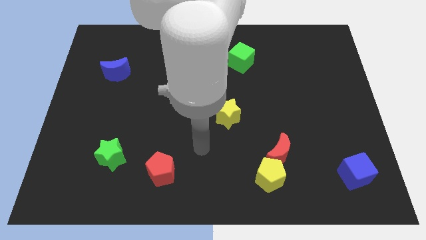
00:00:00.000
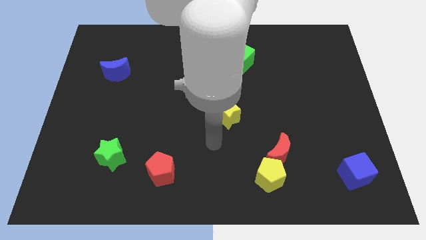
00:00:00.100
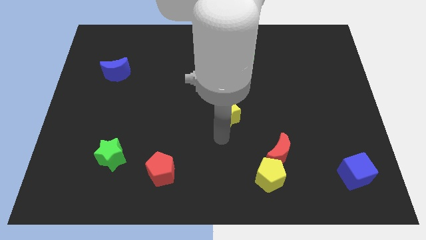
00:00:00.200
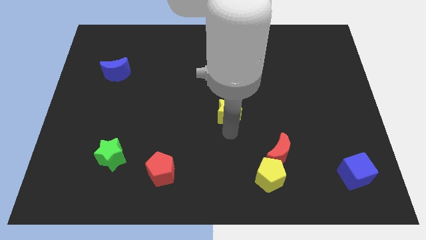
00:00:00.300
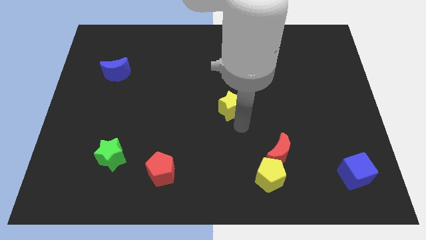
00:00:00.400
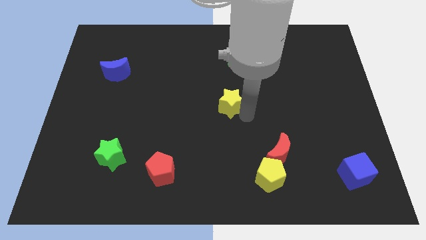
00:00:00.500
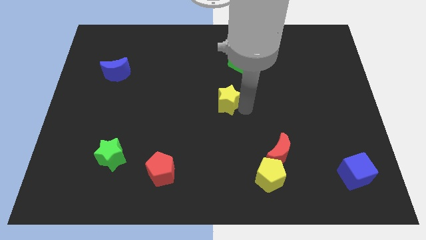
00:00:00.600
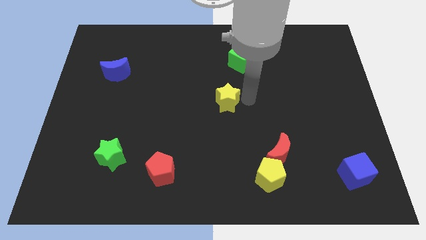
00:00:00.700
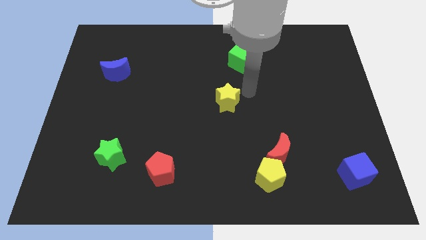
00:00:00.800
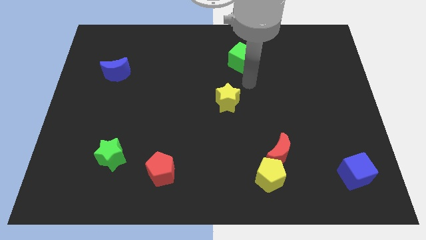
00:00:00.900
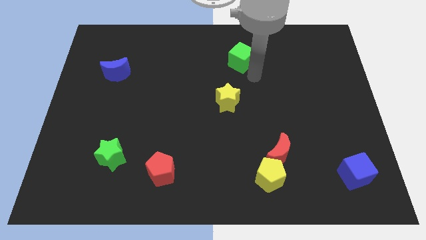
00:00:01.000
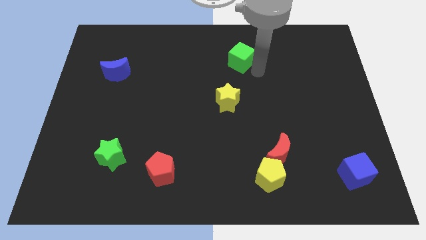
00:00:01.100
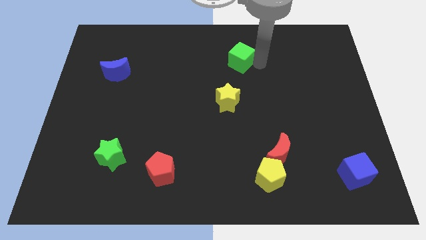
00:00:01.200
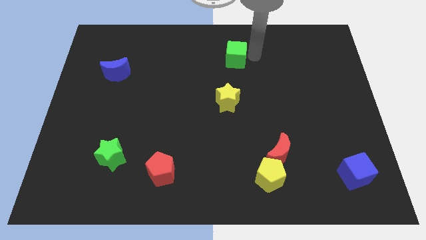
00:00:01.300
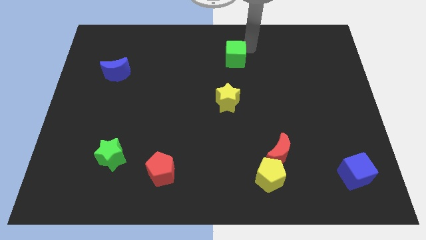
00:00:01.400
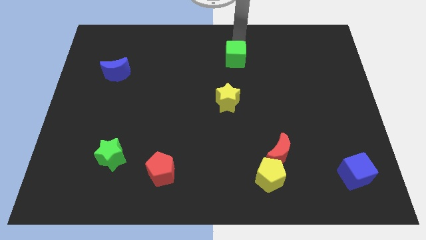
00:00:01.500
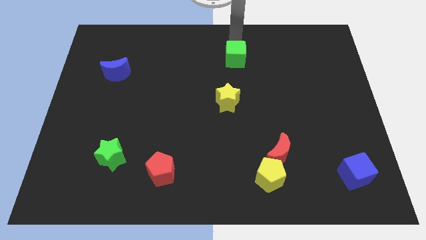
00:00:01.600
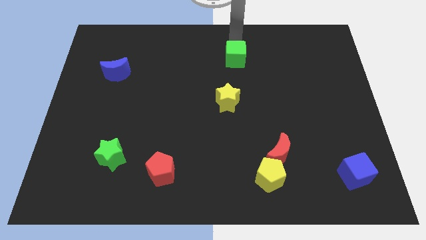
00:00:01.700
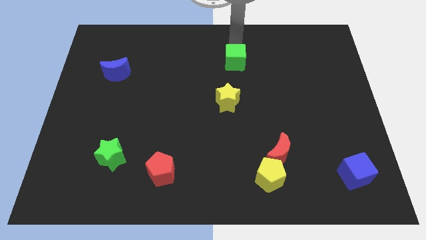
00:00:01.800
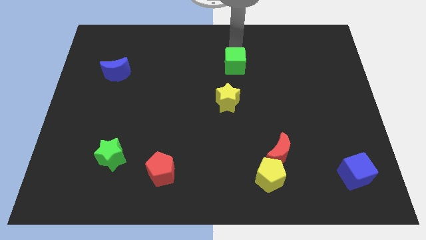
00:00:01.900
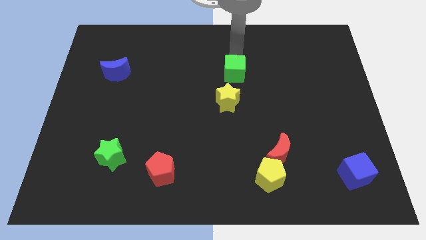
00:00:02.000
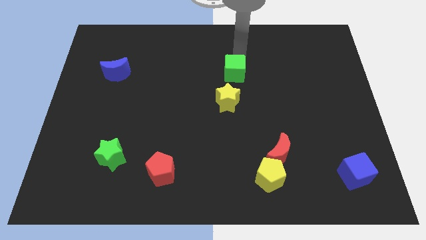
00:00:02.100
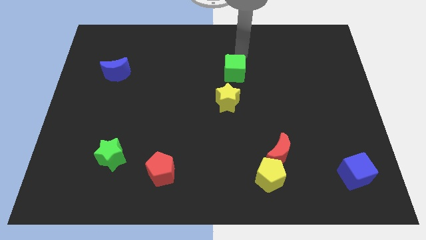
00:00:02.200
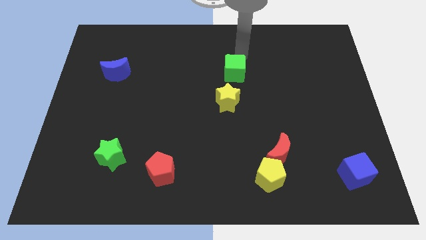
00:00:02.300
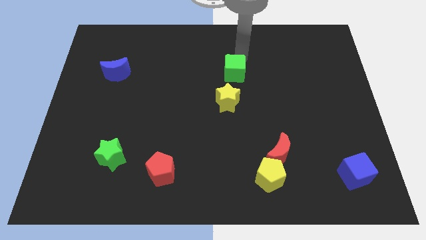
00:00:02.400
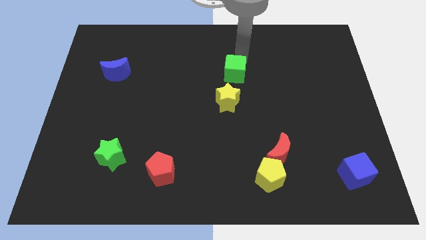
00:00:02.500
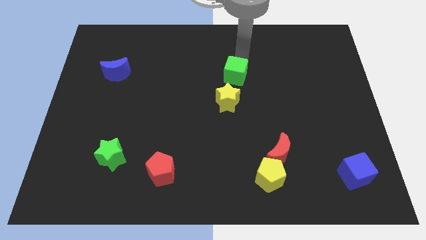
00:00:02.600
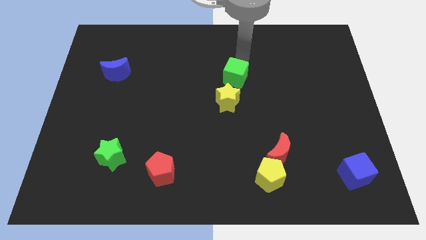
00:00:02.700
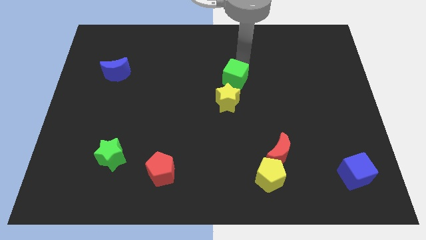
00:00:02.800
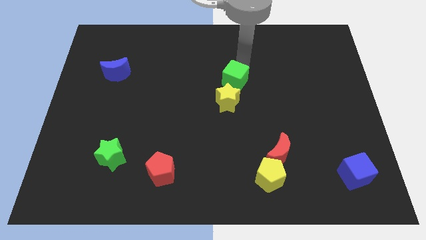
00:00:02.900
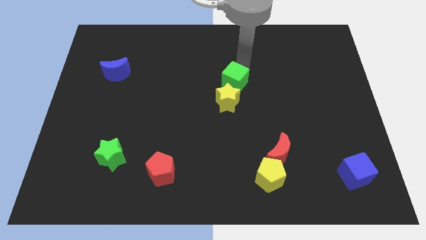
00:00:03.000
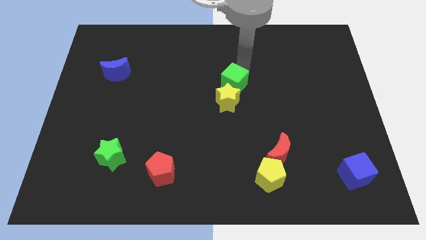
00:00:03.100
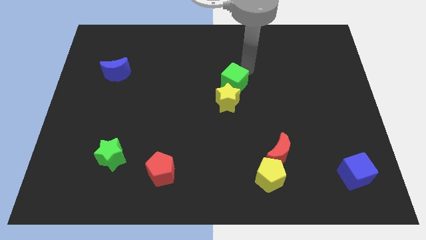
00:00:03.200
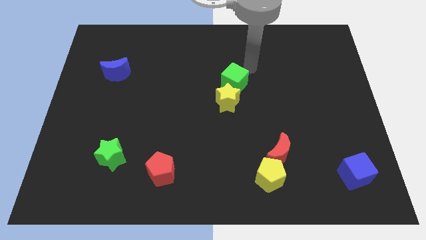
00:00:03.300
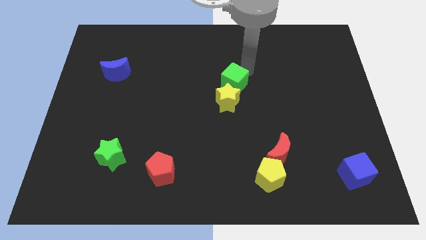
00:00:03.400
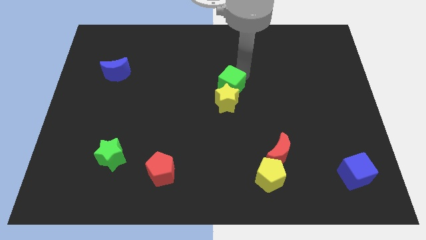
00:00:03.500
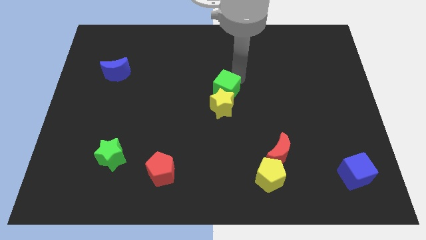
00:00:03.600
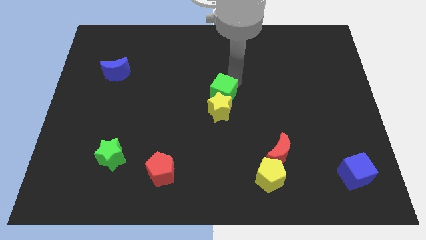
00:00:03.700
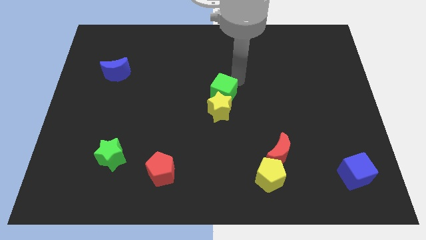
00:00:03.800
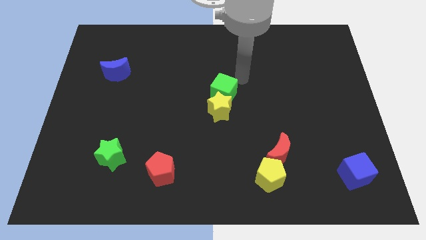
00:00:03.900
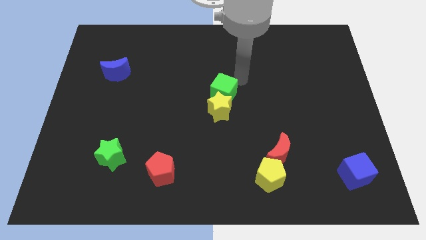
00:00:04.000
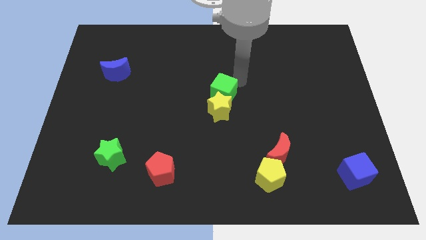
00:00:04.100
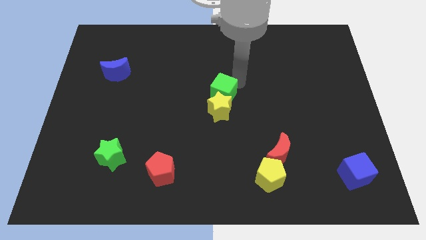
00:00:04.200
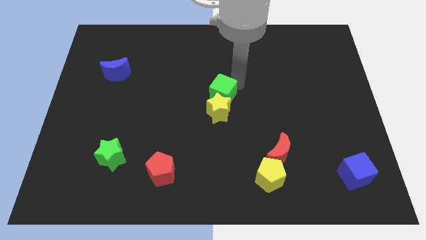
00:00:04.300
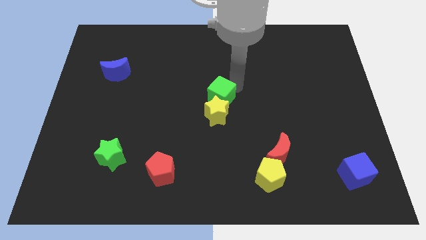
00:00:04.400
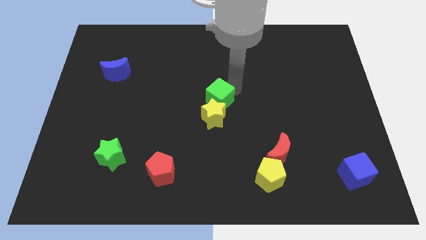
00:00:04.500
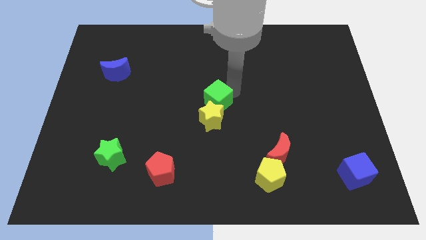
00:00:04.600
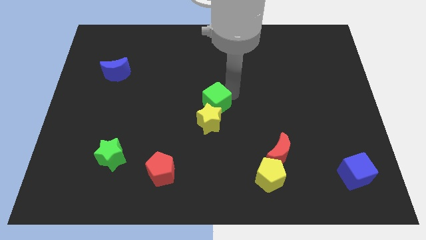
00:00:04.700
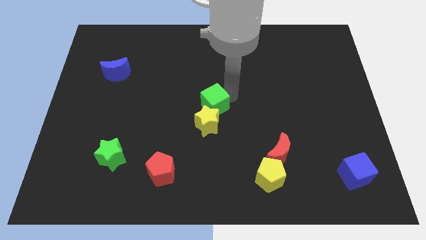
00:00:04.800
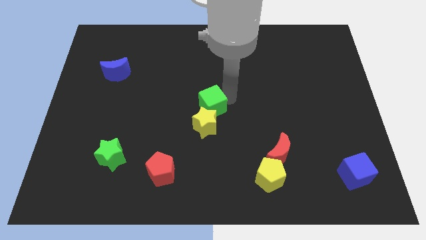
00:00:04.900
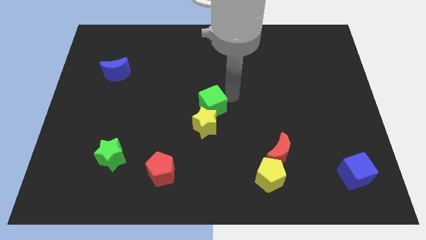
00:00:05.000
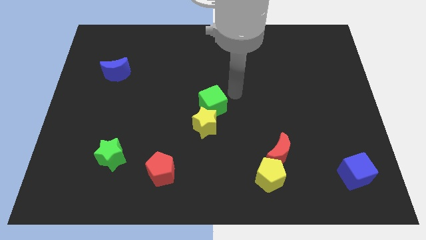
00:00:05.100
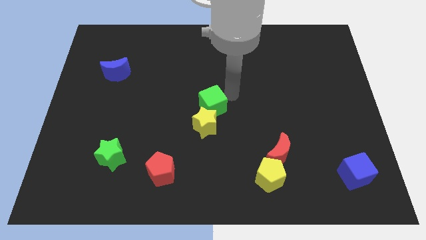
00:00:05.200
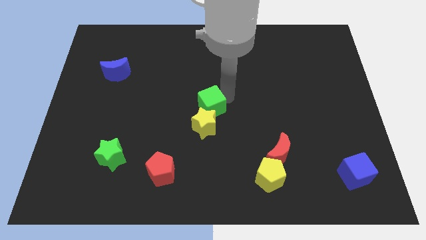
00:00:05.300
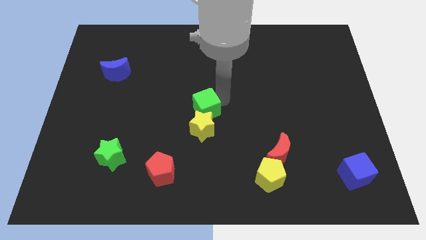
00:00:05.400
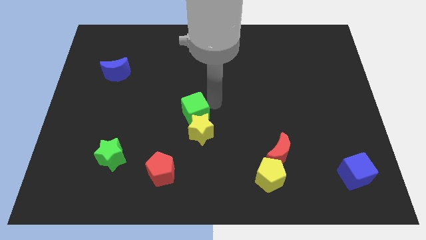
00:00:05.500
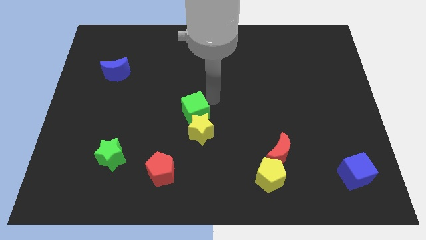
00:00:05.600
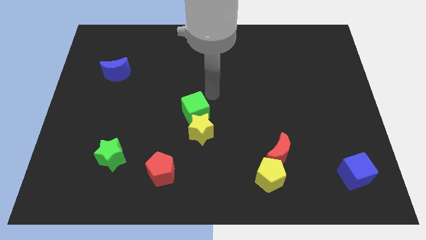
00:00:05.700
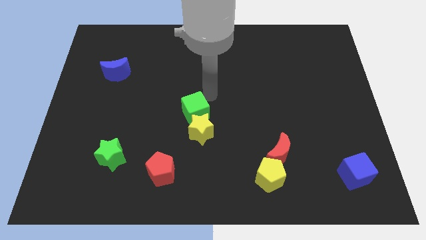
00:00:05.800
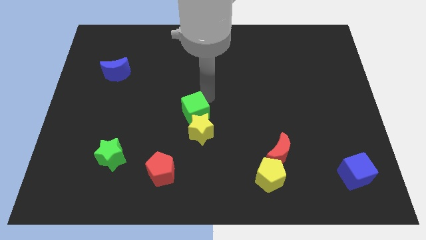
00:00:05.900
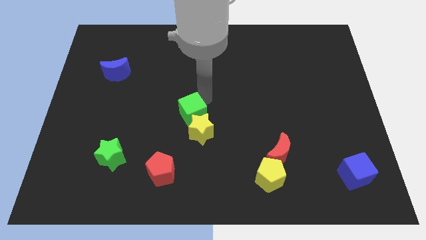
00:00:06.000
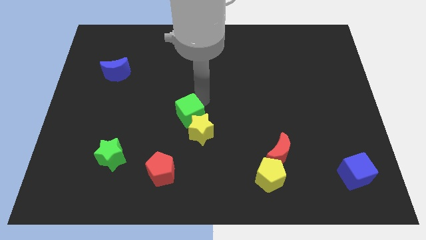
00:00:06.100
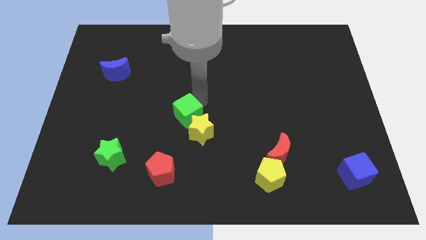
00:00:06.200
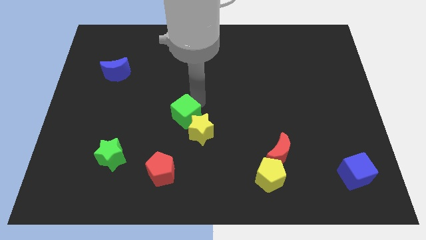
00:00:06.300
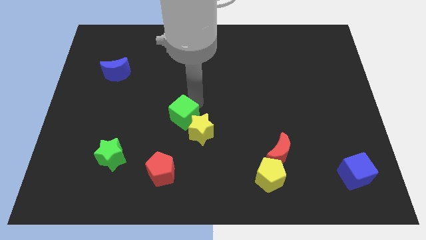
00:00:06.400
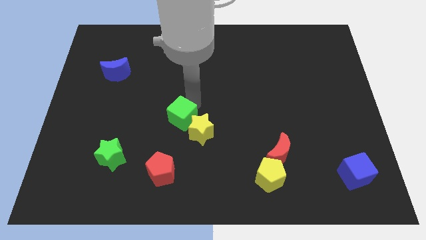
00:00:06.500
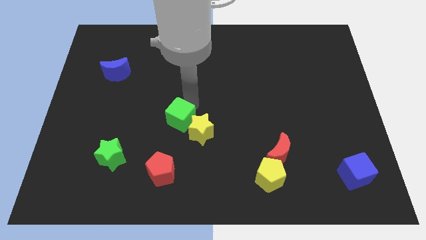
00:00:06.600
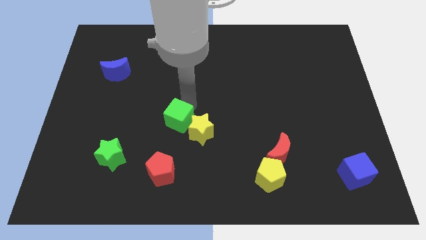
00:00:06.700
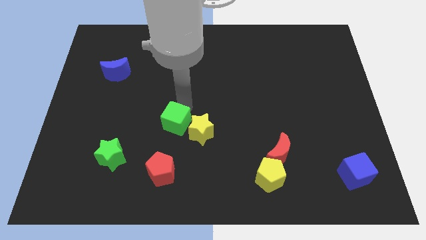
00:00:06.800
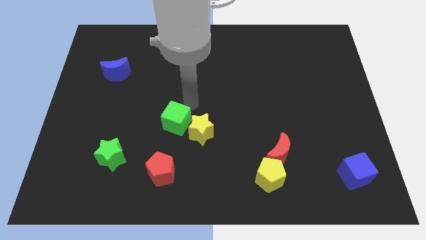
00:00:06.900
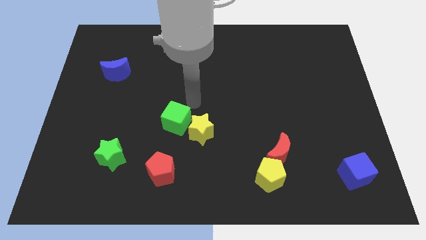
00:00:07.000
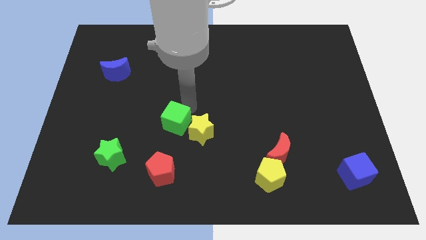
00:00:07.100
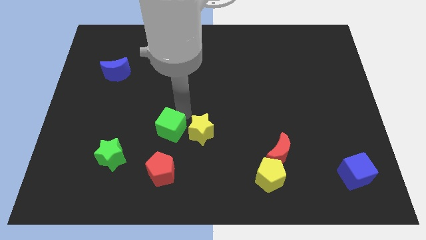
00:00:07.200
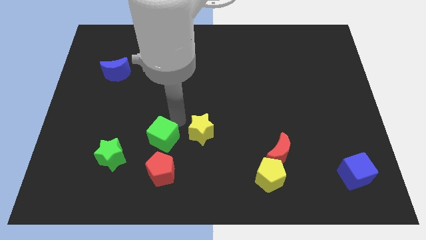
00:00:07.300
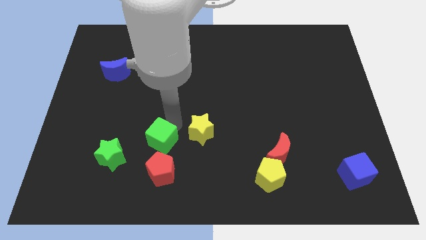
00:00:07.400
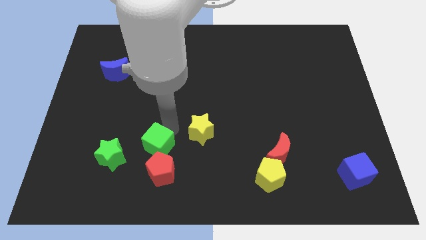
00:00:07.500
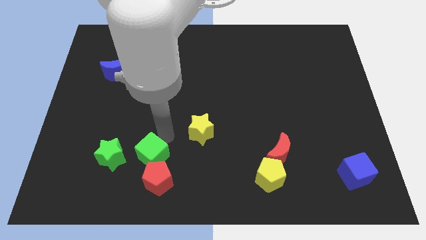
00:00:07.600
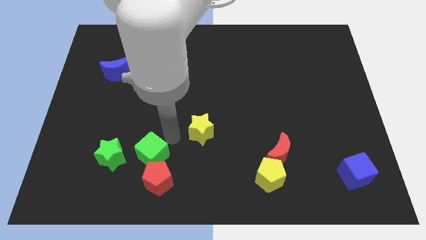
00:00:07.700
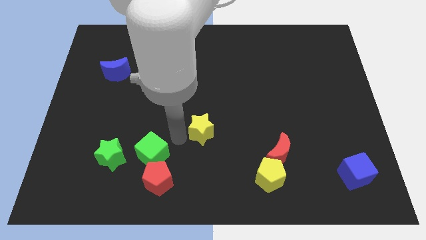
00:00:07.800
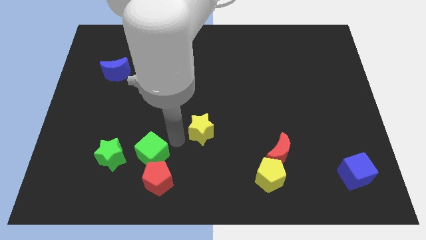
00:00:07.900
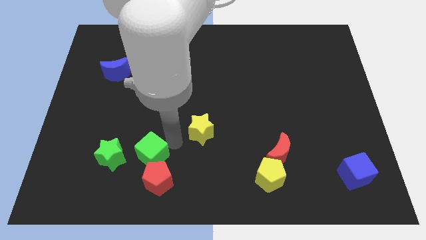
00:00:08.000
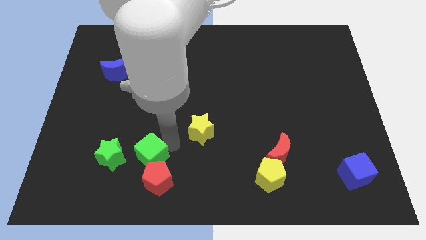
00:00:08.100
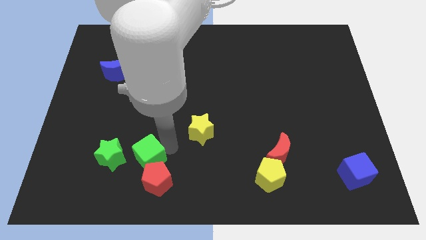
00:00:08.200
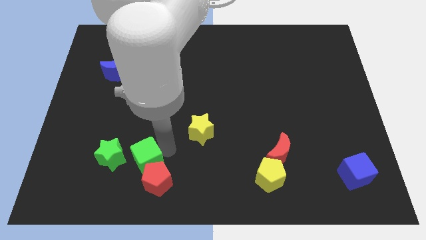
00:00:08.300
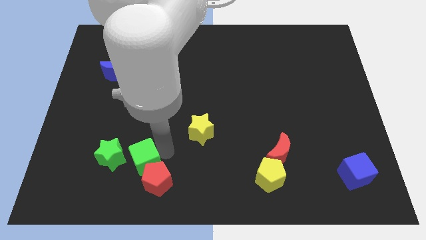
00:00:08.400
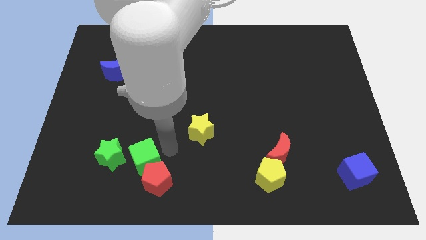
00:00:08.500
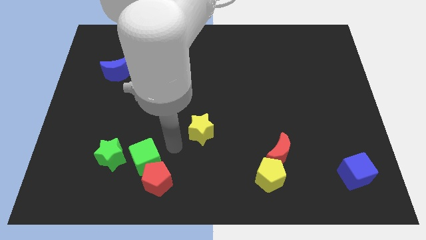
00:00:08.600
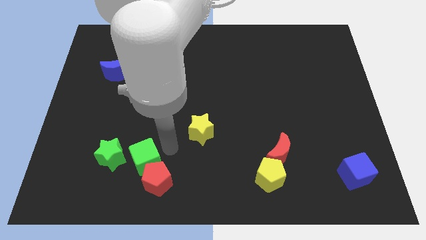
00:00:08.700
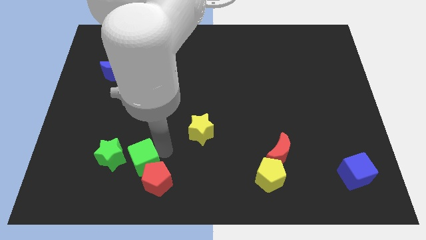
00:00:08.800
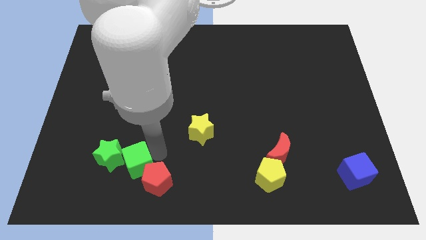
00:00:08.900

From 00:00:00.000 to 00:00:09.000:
slide the green cube to the left of the red pentagon

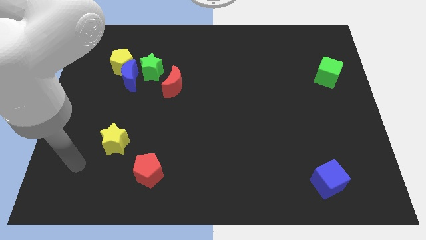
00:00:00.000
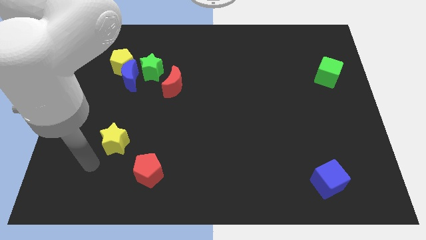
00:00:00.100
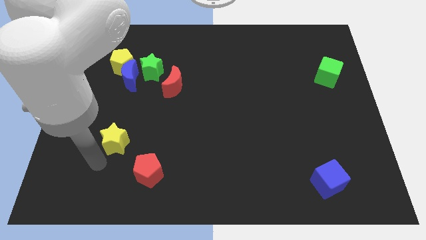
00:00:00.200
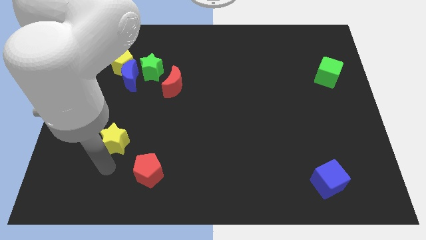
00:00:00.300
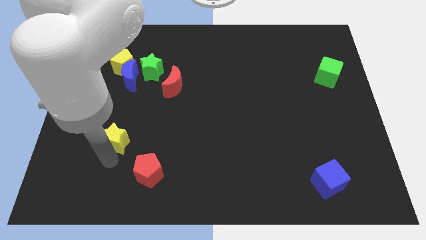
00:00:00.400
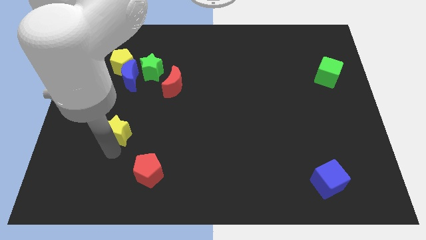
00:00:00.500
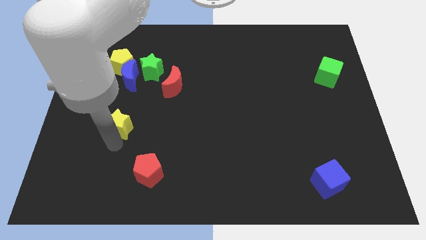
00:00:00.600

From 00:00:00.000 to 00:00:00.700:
move the yellow star below the blue moon
